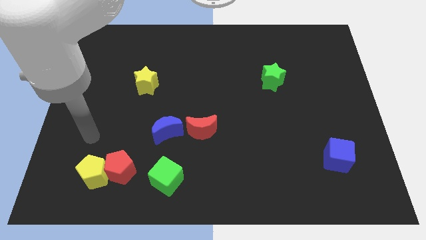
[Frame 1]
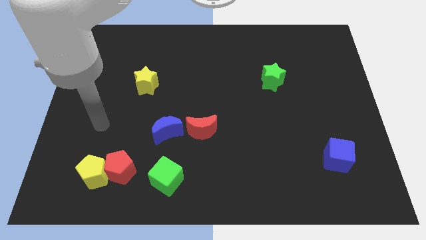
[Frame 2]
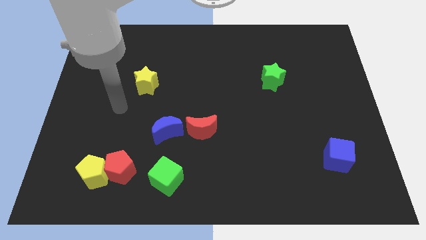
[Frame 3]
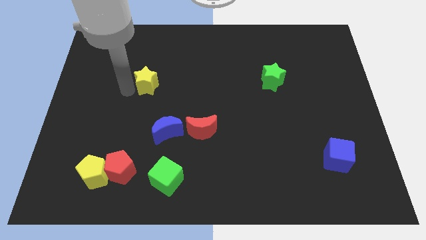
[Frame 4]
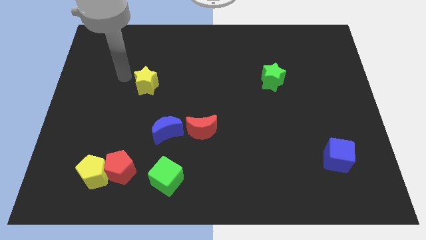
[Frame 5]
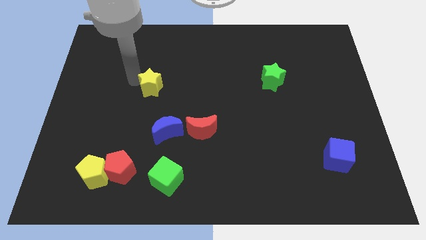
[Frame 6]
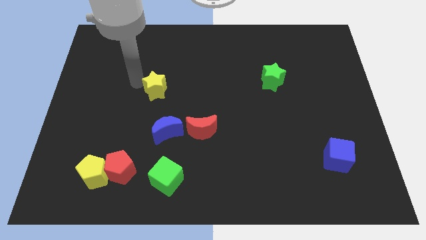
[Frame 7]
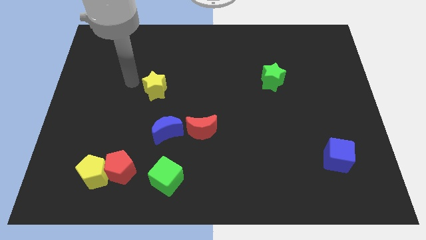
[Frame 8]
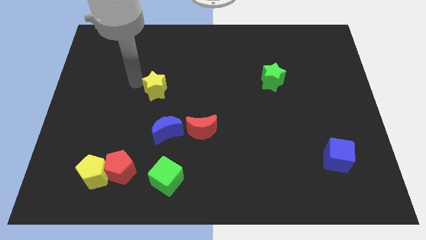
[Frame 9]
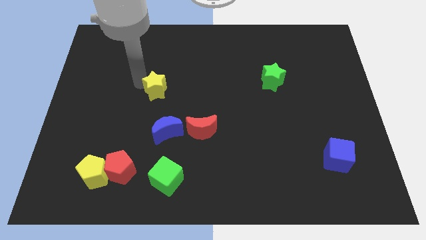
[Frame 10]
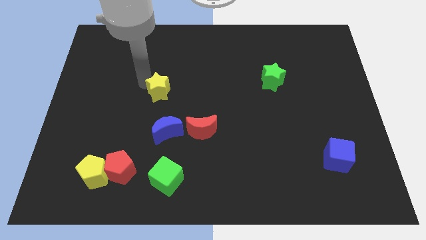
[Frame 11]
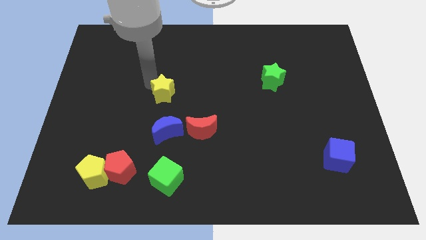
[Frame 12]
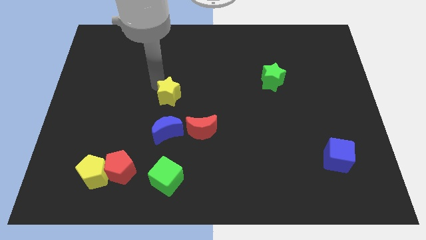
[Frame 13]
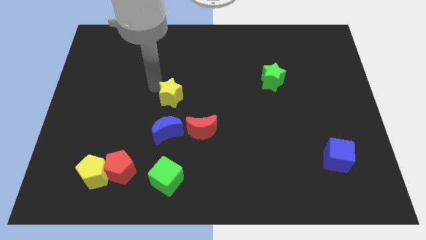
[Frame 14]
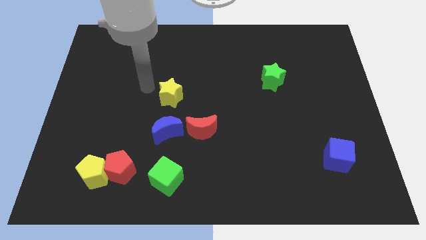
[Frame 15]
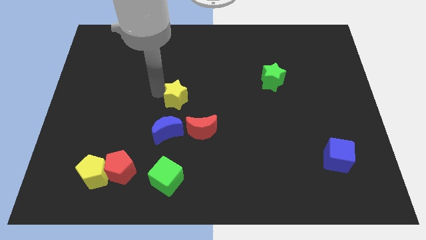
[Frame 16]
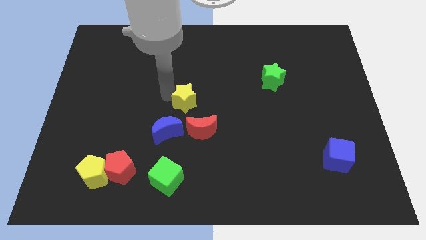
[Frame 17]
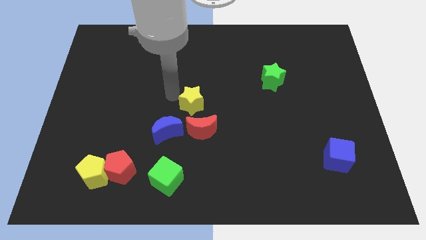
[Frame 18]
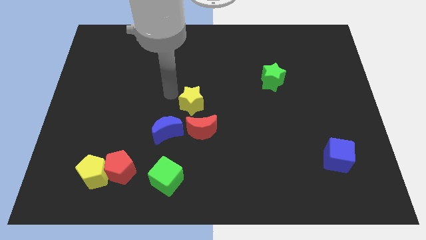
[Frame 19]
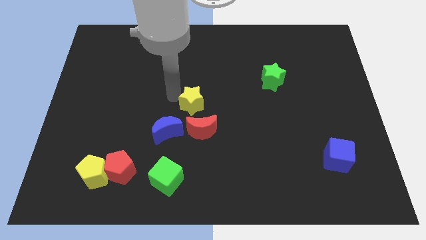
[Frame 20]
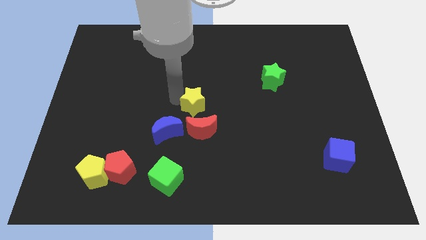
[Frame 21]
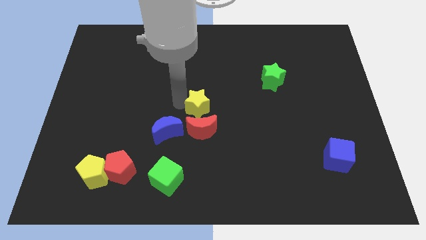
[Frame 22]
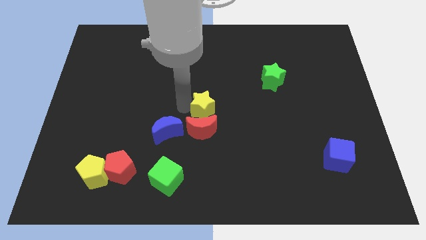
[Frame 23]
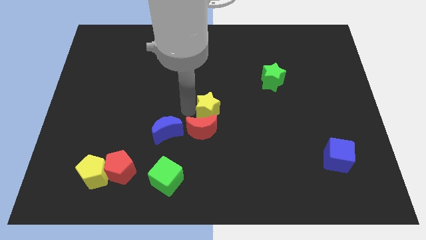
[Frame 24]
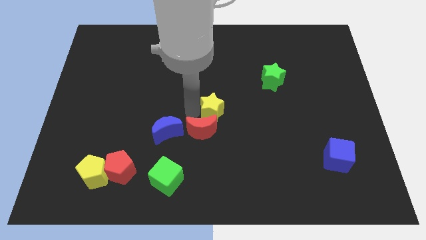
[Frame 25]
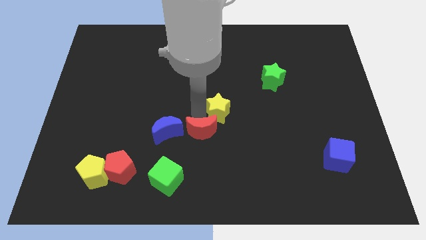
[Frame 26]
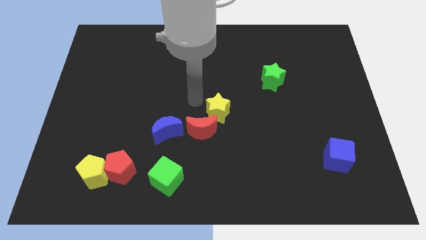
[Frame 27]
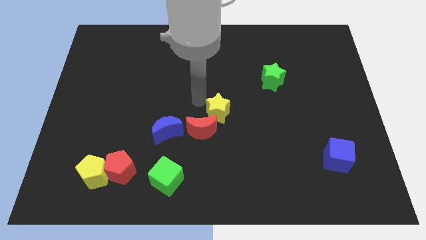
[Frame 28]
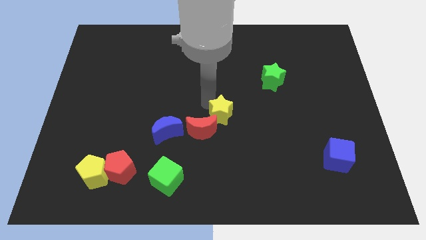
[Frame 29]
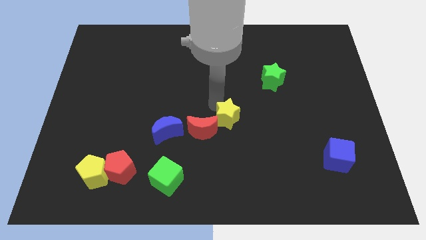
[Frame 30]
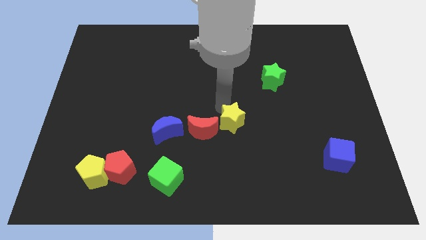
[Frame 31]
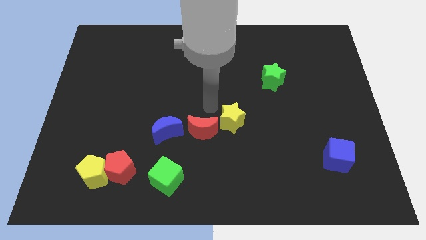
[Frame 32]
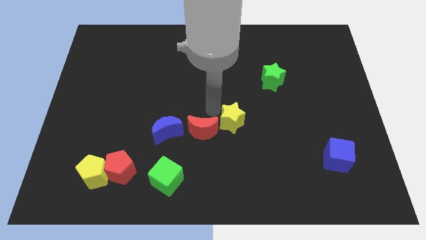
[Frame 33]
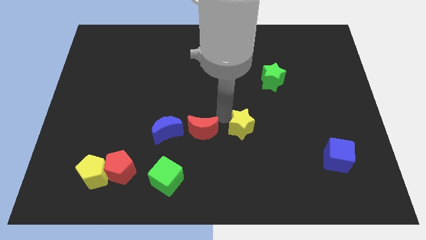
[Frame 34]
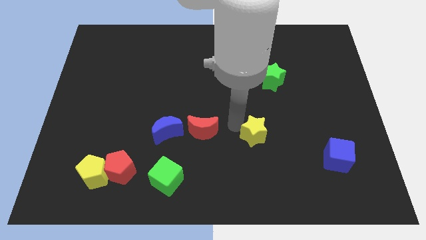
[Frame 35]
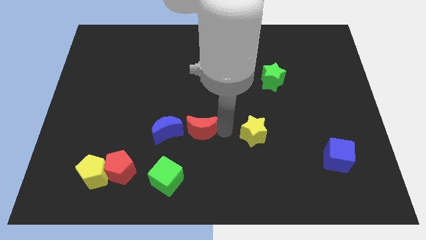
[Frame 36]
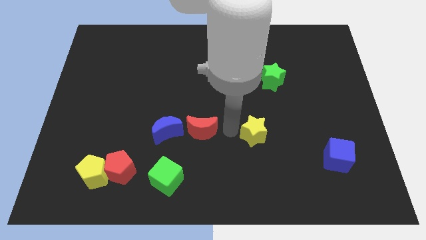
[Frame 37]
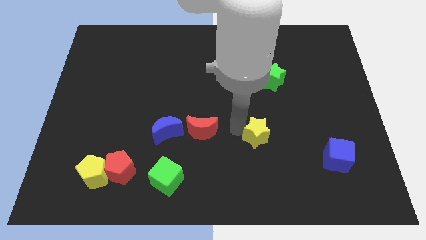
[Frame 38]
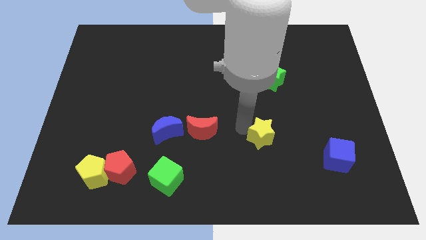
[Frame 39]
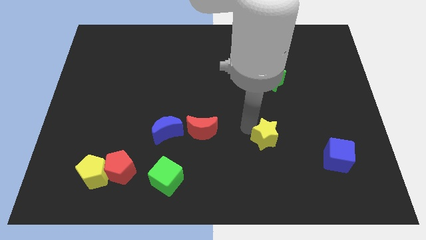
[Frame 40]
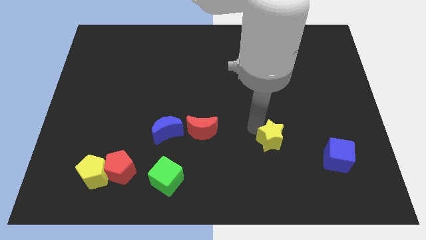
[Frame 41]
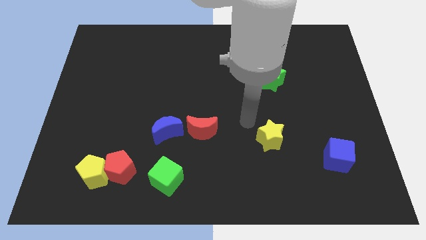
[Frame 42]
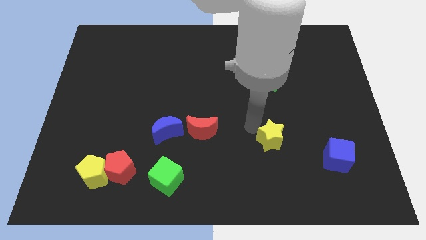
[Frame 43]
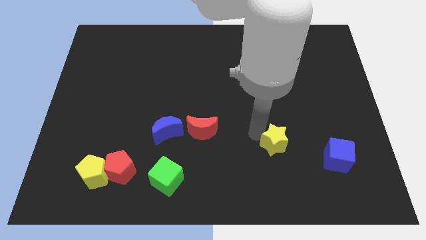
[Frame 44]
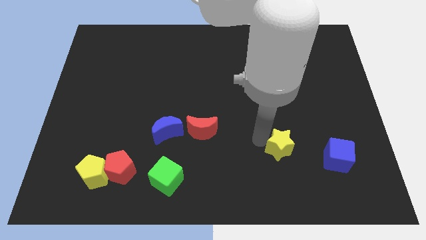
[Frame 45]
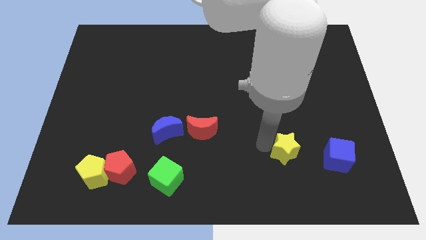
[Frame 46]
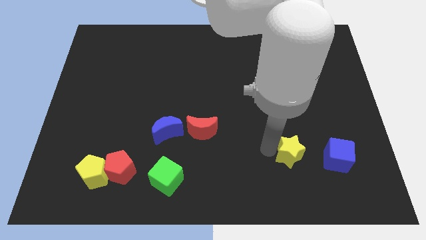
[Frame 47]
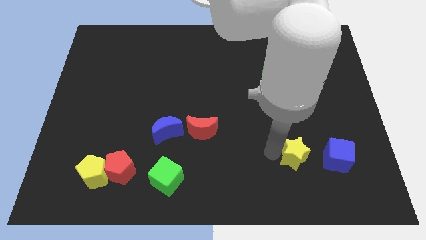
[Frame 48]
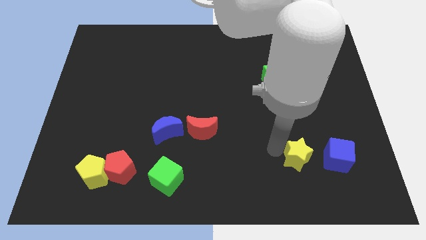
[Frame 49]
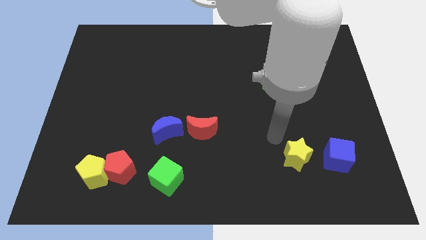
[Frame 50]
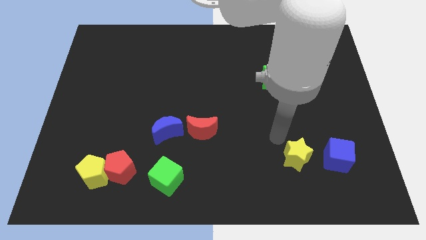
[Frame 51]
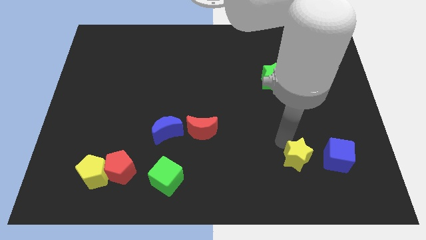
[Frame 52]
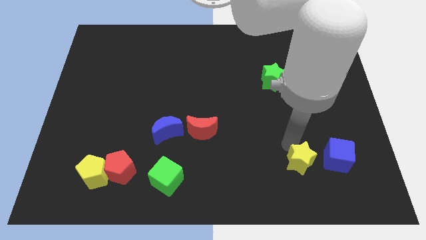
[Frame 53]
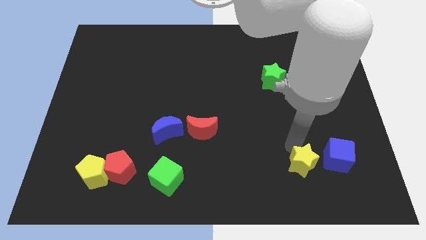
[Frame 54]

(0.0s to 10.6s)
slide the yellow star to the bottom left of the blue cube

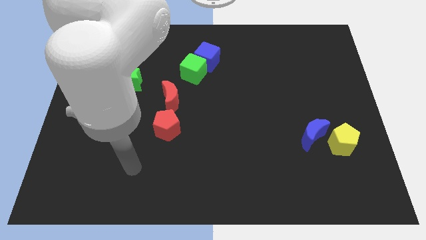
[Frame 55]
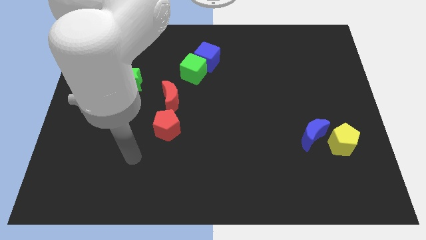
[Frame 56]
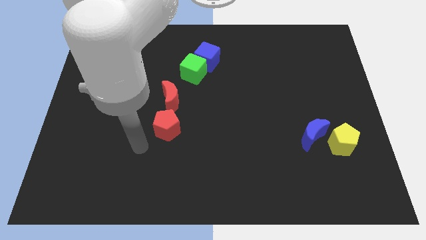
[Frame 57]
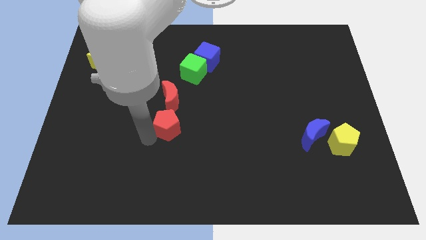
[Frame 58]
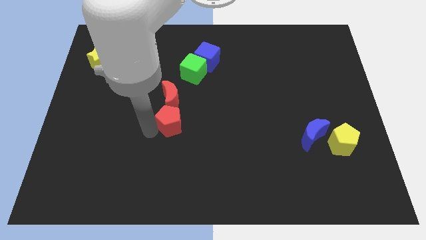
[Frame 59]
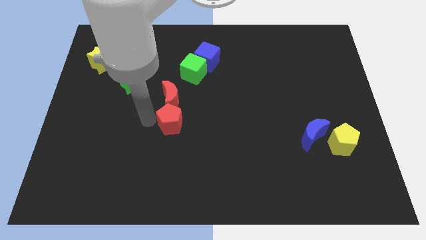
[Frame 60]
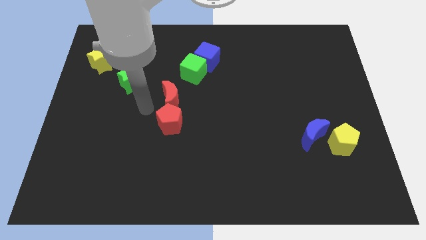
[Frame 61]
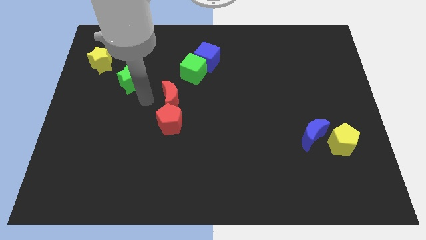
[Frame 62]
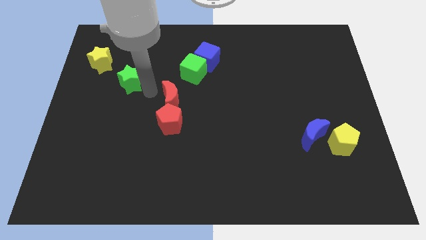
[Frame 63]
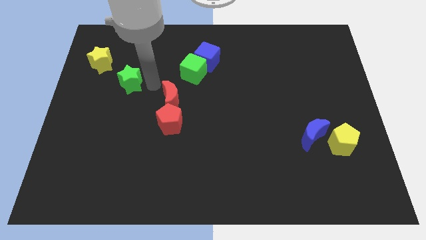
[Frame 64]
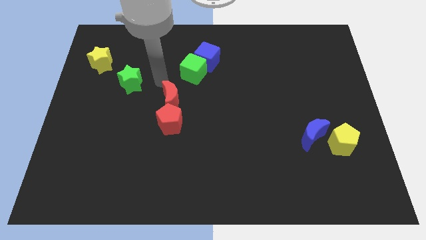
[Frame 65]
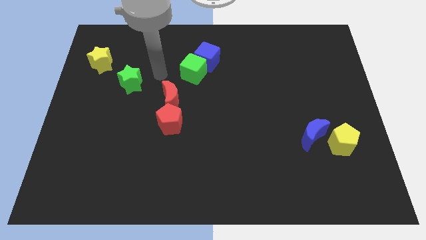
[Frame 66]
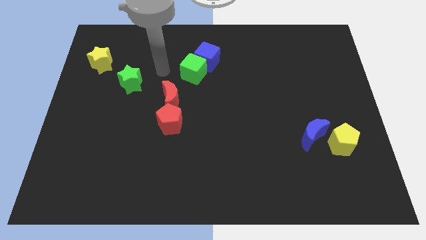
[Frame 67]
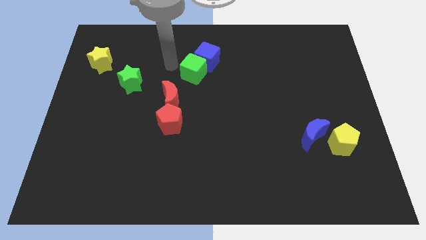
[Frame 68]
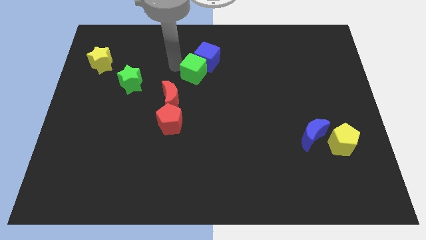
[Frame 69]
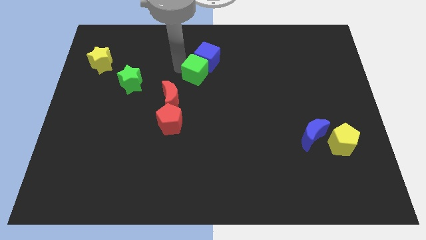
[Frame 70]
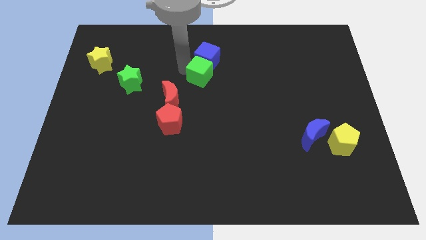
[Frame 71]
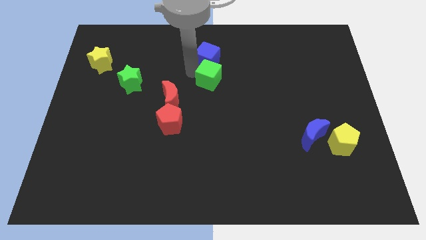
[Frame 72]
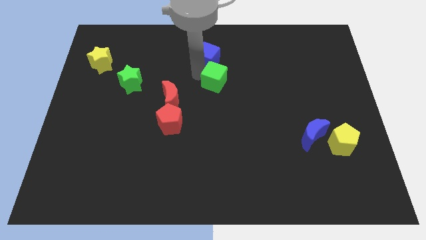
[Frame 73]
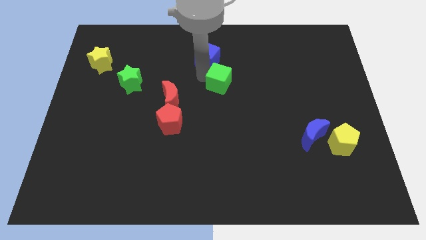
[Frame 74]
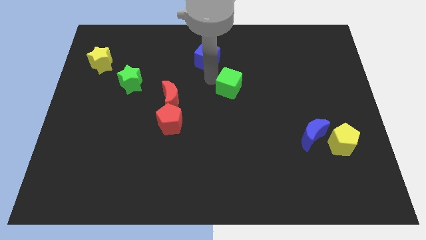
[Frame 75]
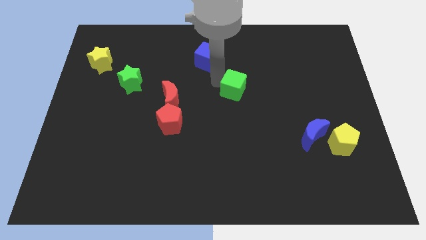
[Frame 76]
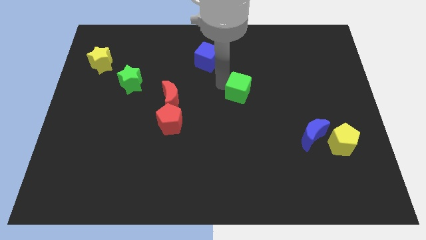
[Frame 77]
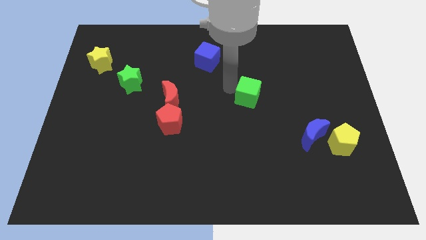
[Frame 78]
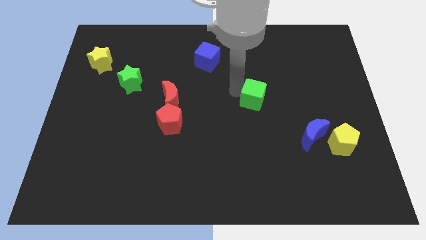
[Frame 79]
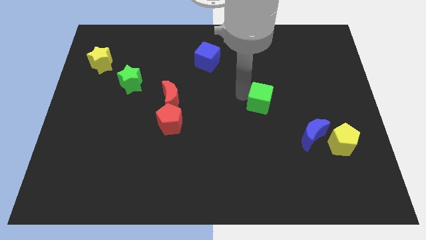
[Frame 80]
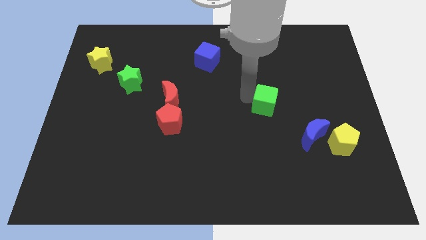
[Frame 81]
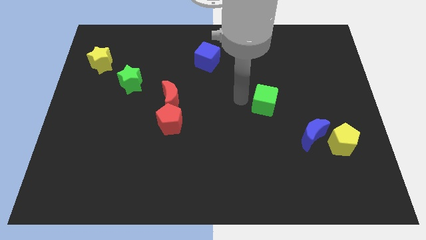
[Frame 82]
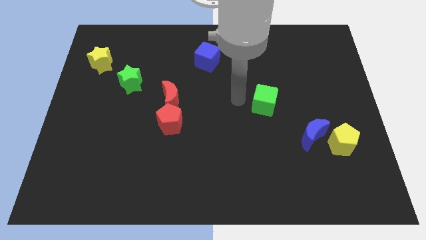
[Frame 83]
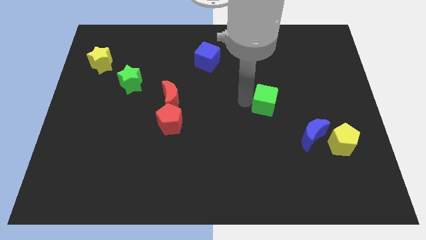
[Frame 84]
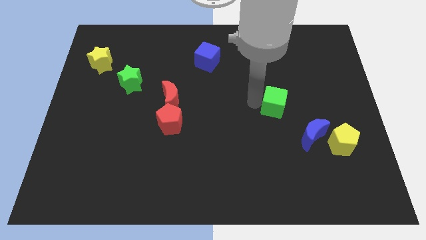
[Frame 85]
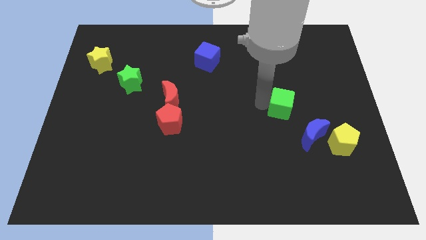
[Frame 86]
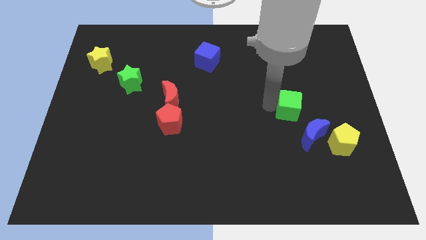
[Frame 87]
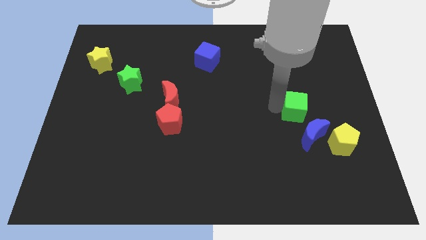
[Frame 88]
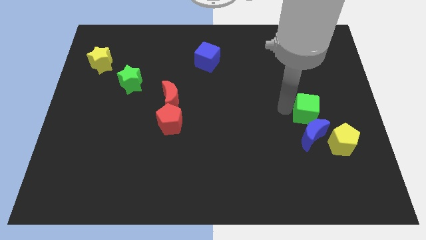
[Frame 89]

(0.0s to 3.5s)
slide the green cube to the top right side of the blue moon
